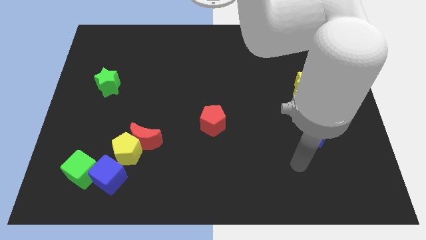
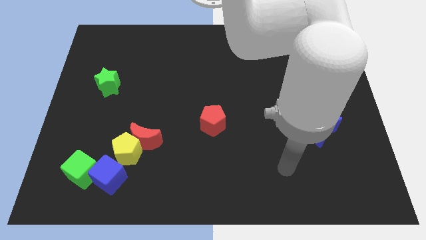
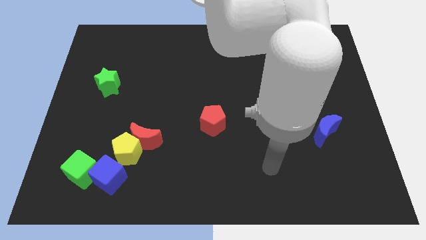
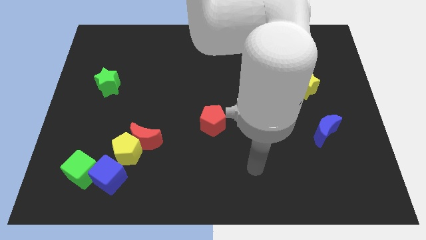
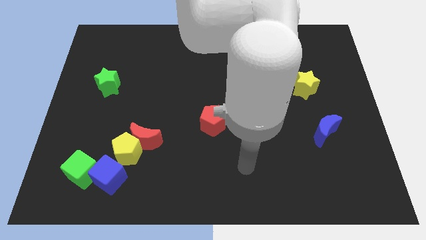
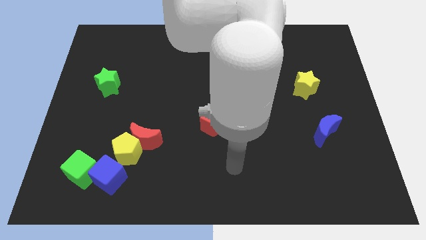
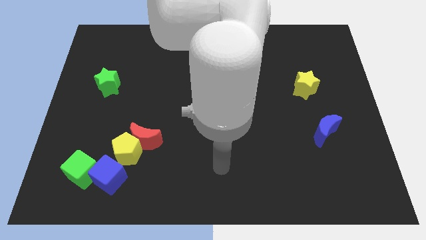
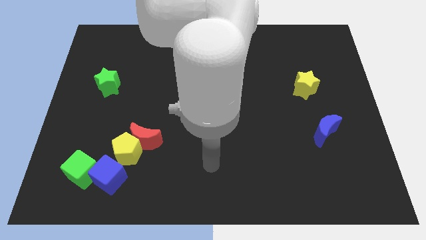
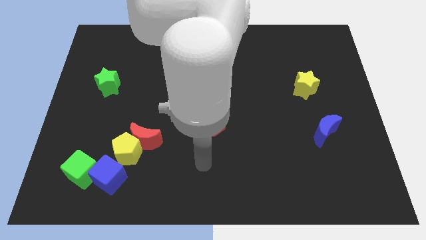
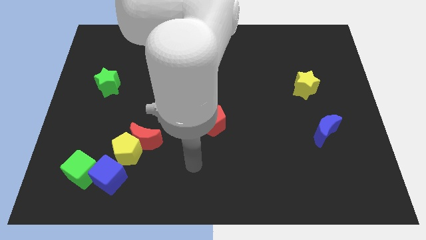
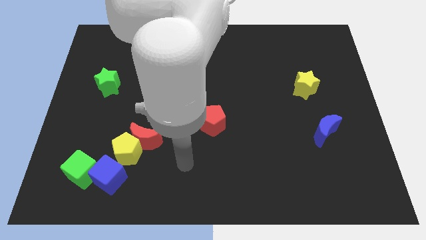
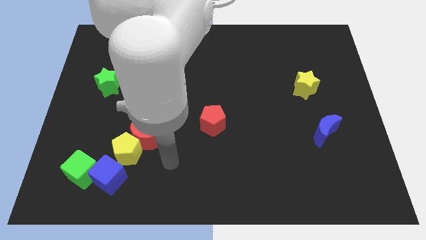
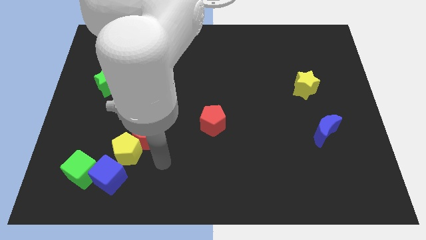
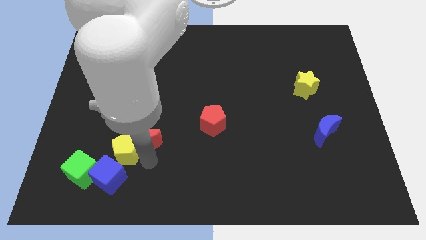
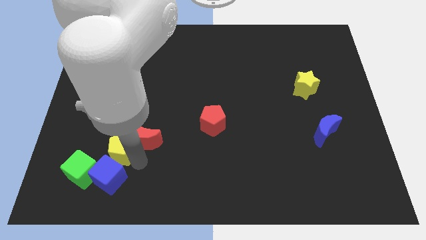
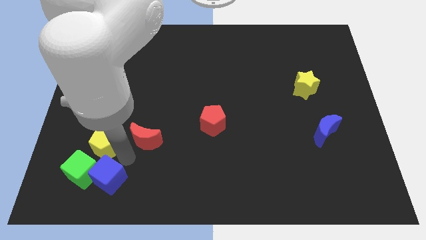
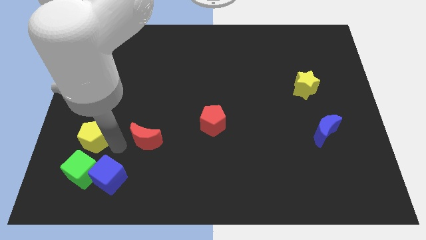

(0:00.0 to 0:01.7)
separate the red moon from the yellow pentagon

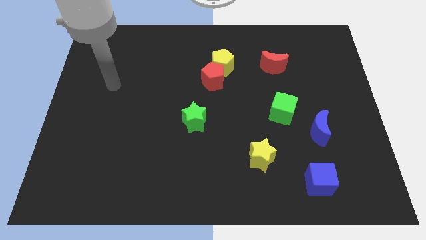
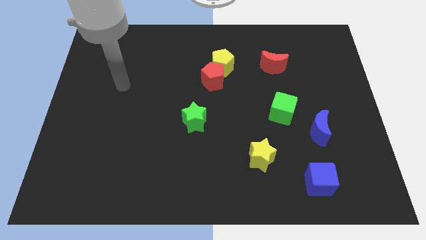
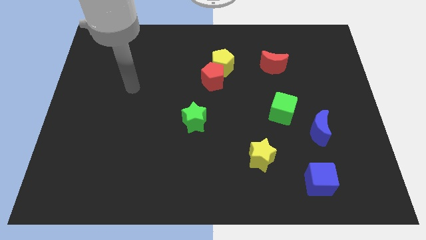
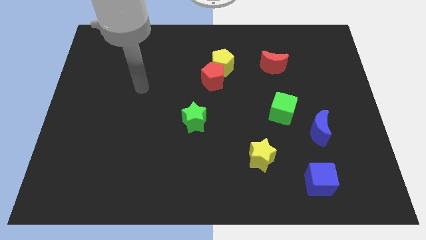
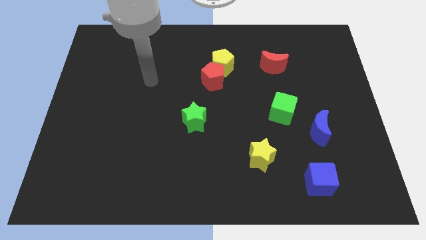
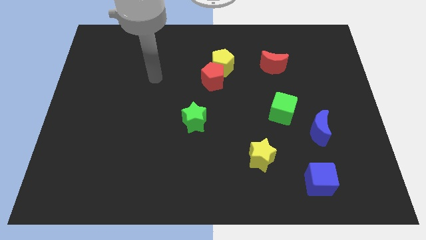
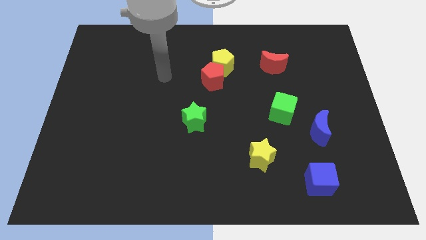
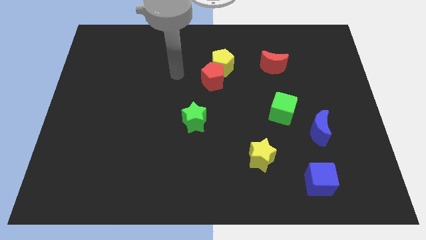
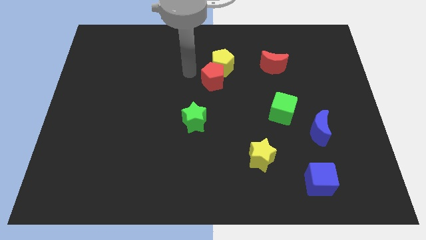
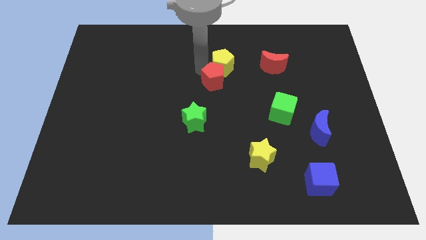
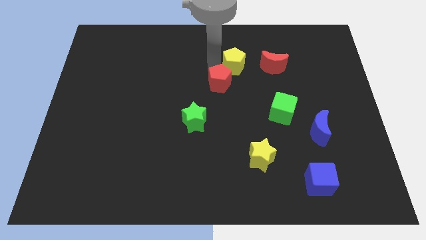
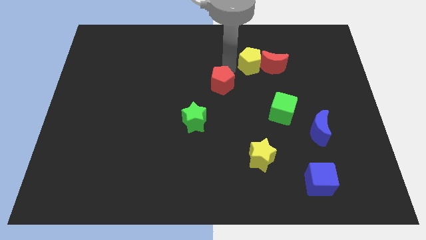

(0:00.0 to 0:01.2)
pull the red pentagon apart from the yellow pentagon

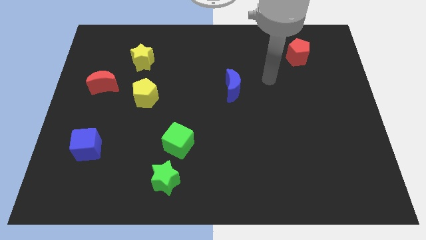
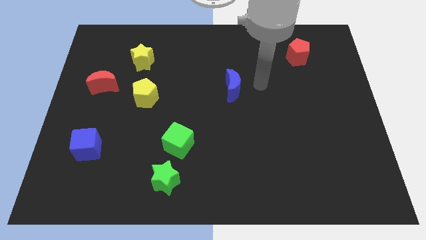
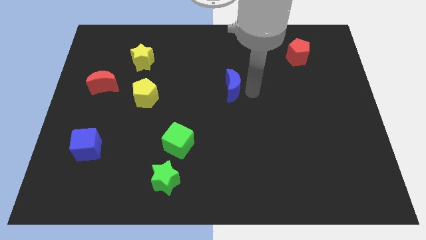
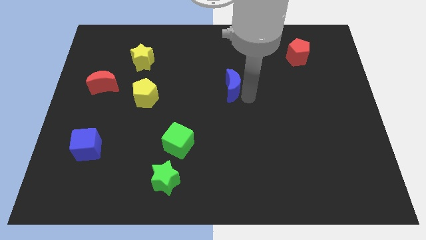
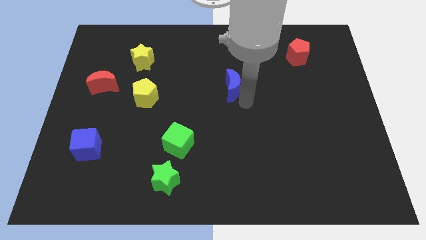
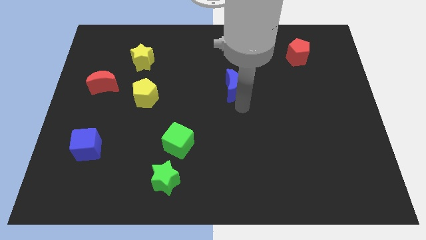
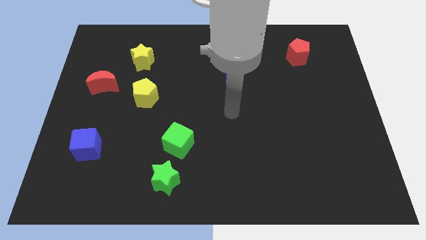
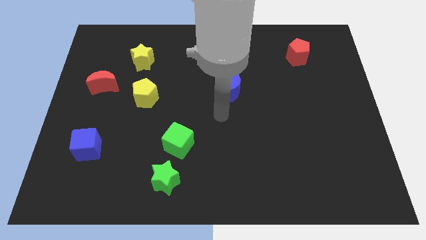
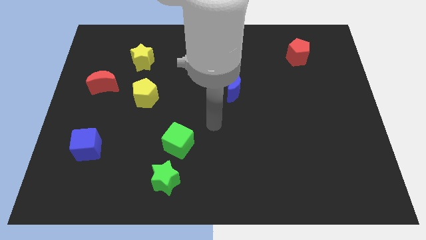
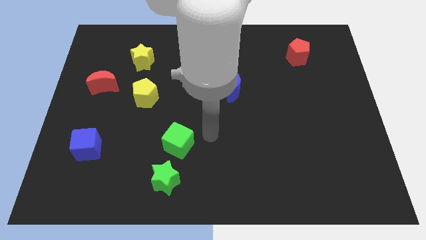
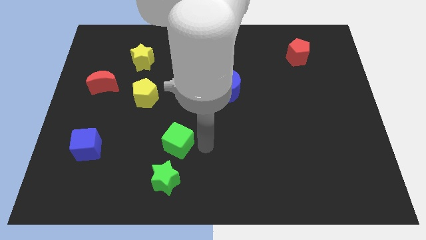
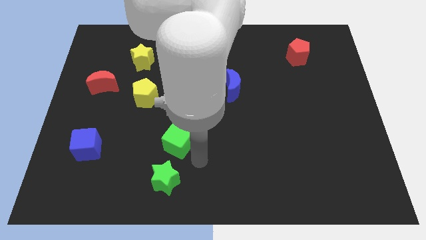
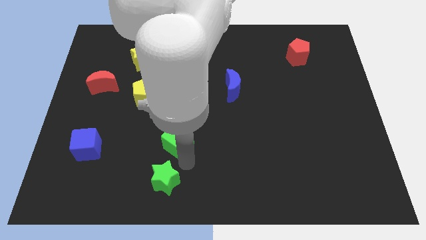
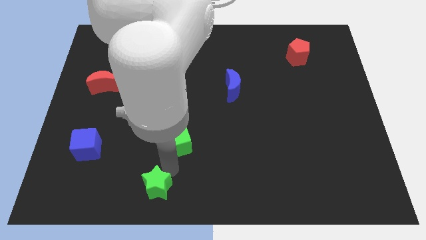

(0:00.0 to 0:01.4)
move the green cube away from the green star

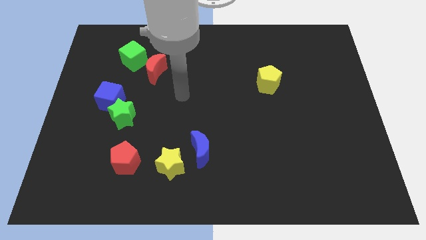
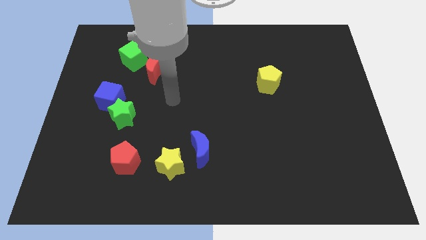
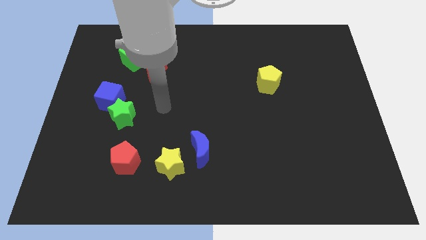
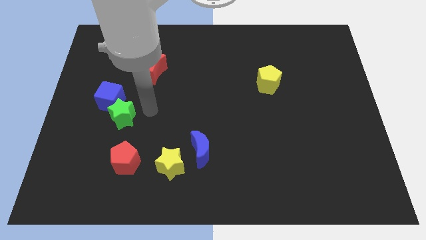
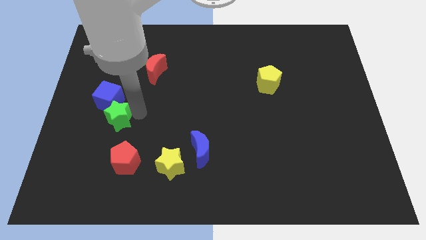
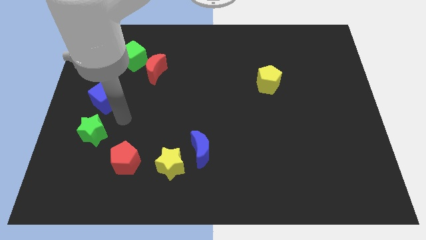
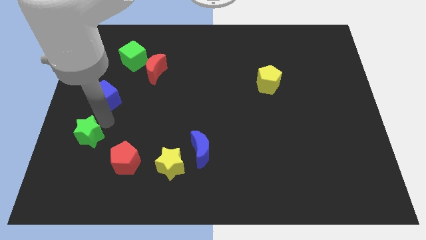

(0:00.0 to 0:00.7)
pull the blue cube apart from the green star

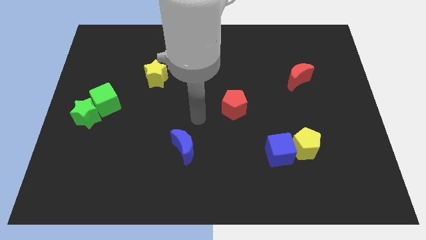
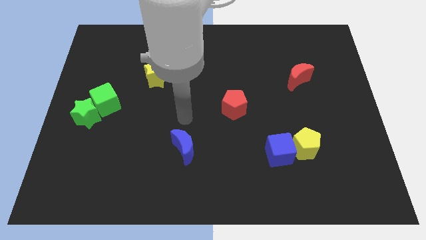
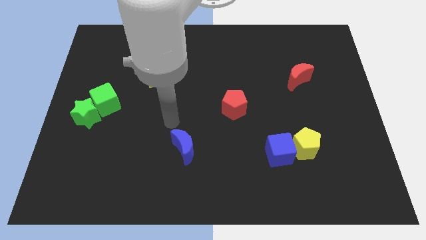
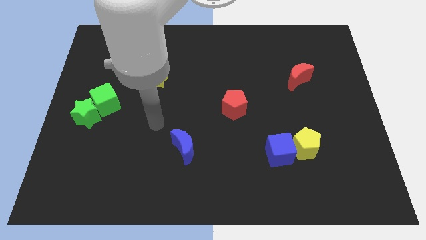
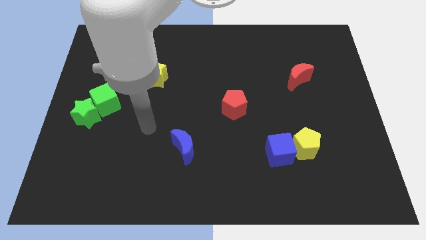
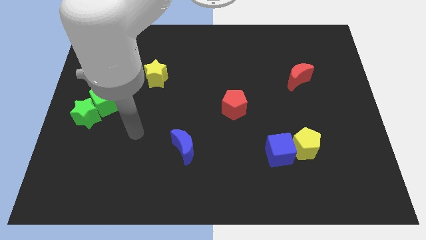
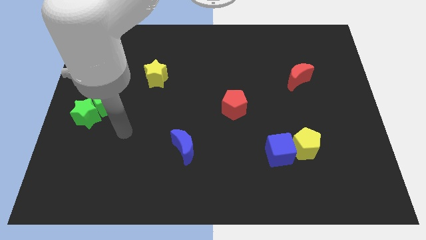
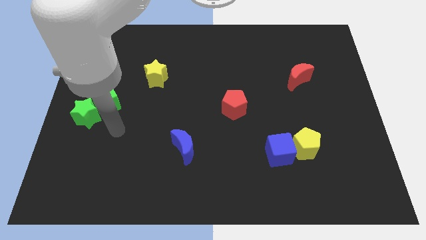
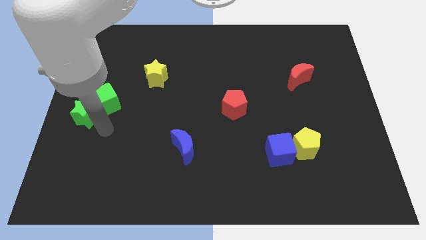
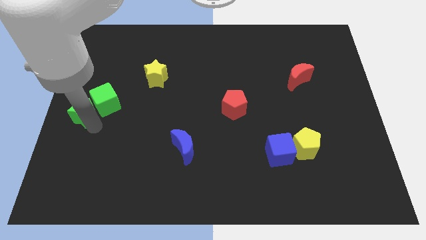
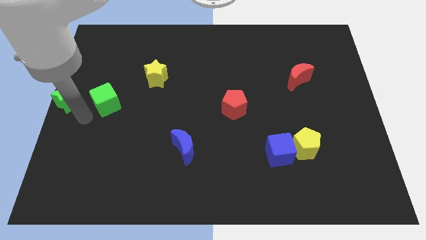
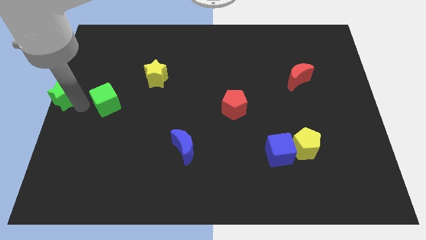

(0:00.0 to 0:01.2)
separate the green cube from the green star

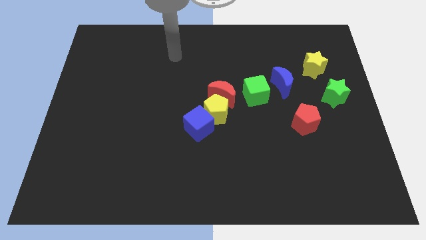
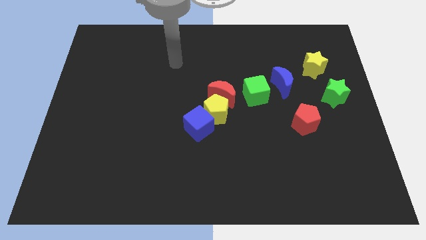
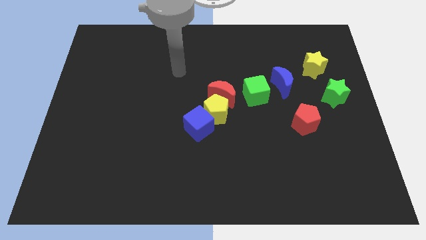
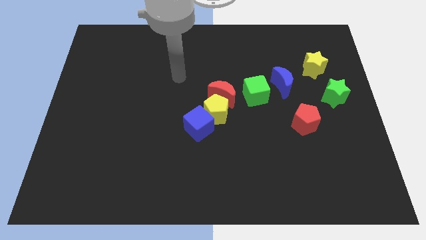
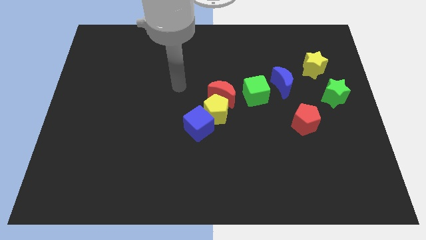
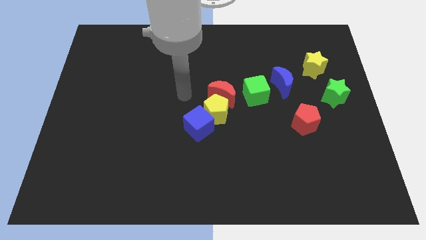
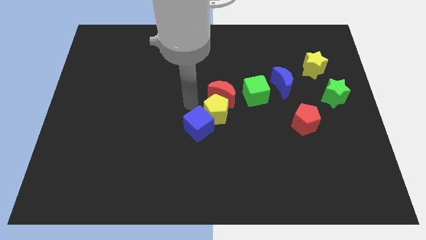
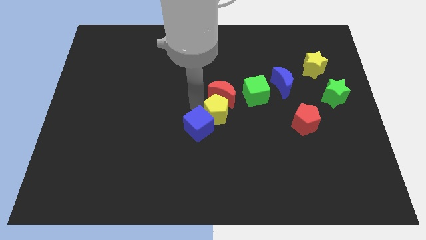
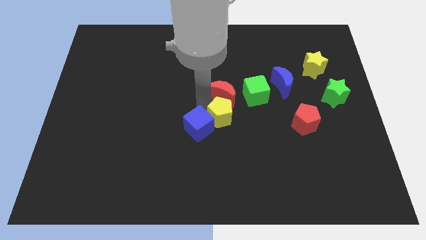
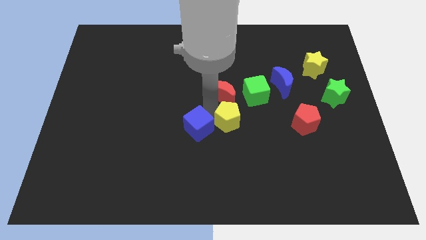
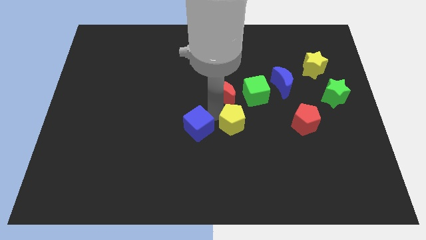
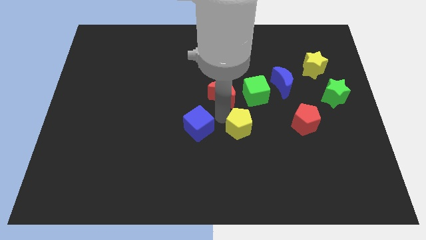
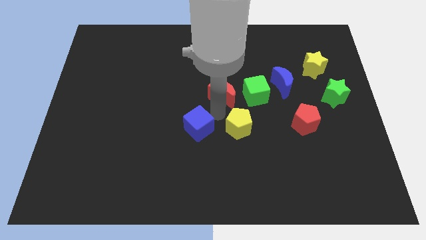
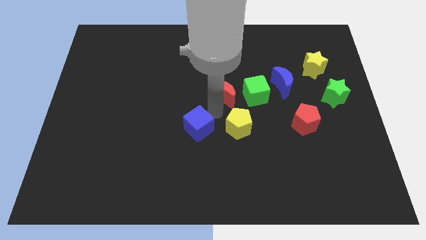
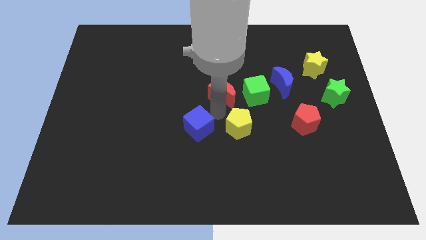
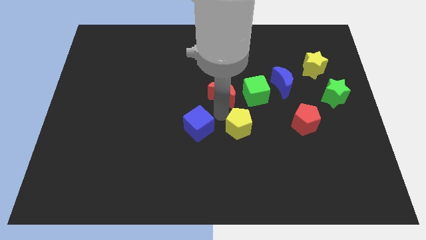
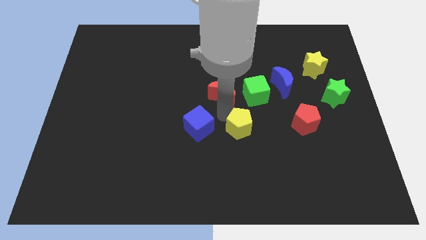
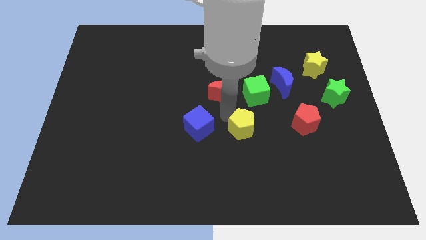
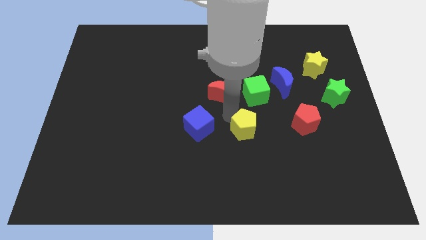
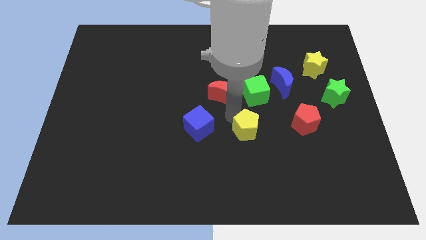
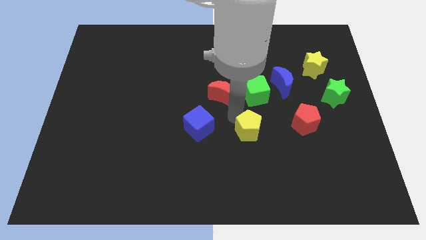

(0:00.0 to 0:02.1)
pull the yellow pentagon apart from the red moon and blue cube

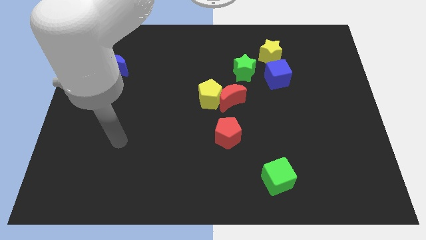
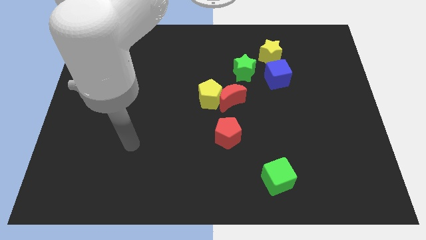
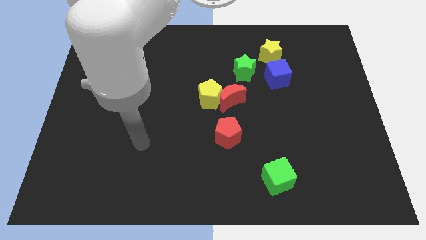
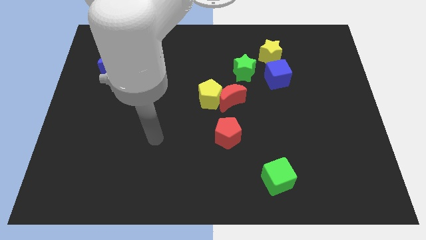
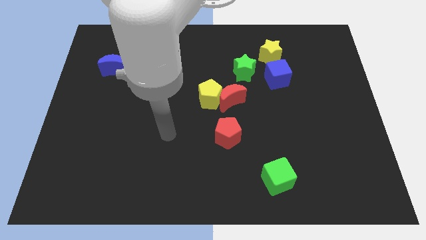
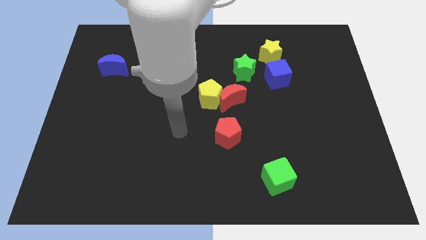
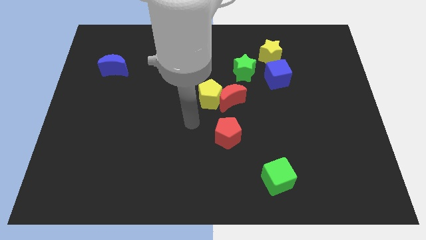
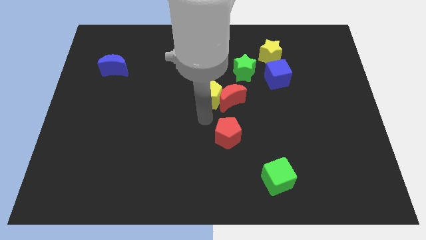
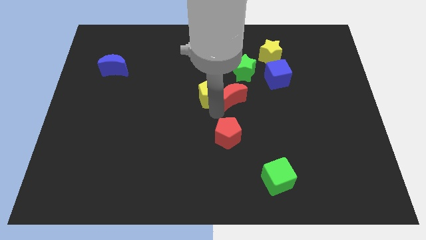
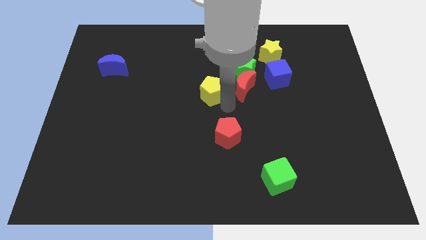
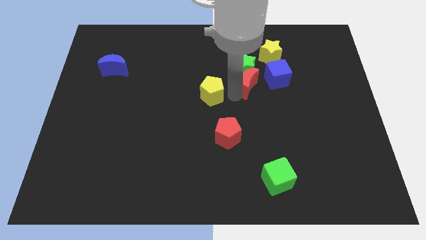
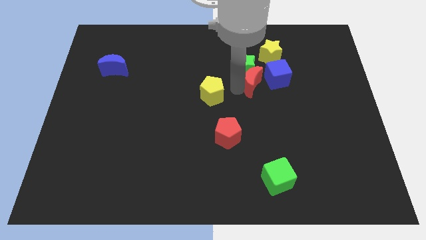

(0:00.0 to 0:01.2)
pull the yellow pentagon apart from the red moon

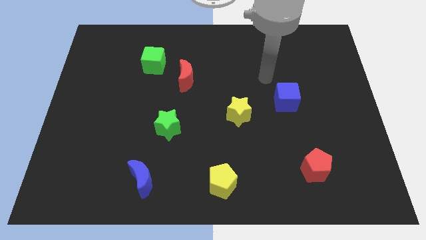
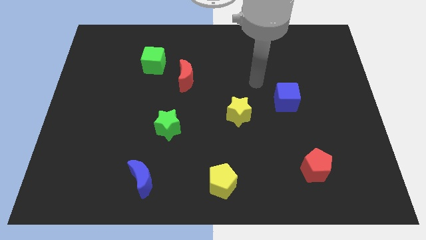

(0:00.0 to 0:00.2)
separate the red moon from the green cube
